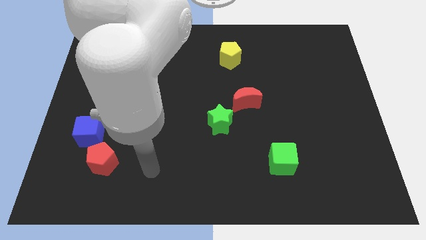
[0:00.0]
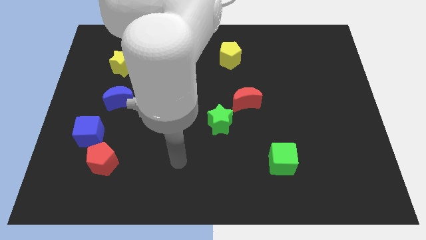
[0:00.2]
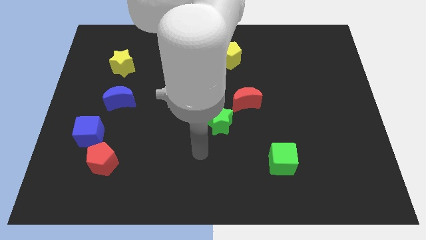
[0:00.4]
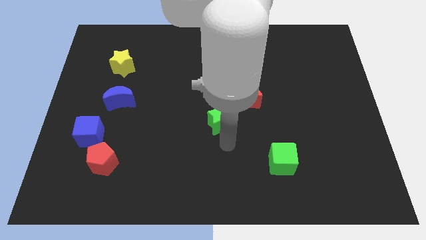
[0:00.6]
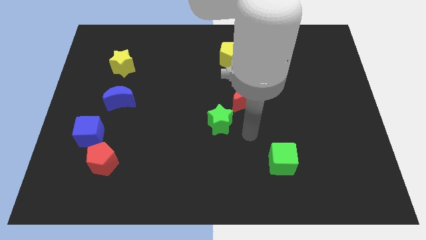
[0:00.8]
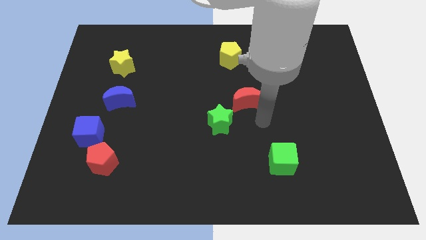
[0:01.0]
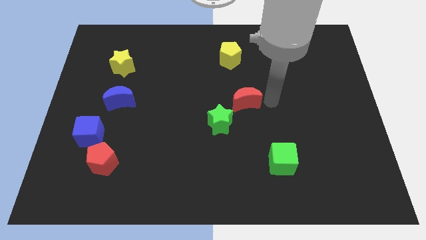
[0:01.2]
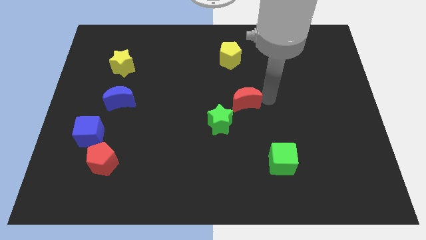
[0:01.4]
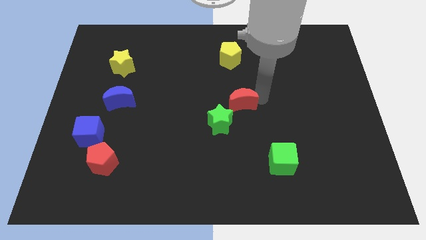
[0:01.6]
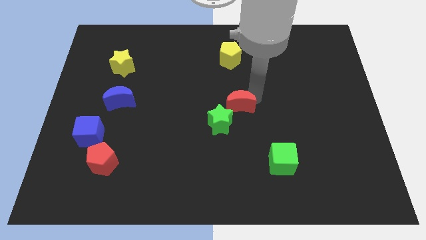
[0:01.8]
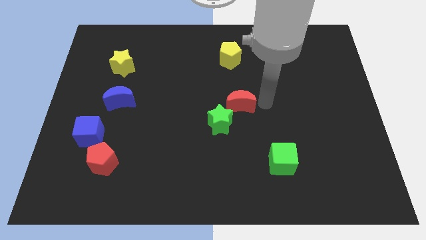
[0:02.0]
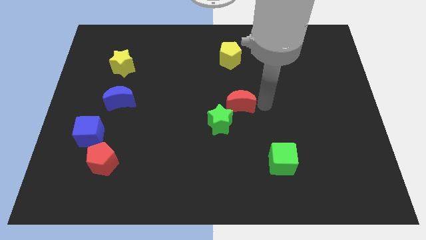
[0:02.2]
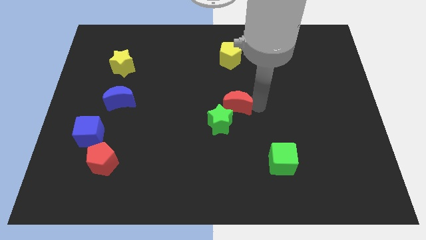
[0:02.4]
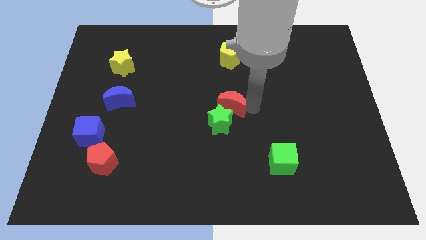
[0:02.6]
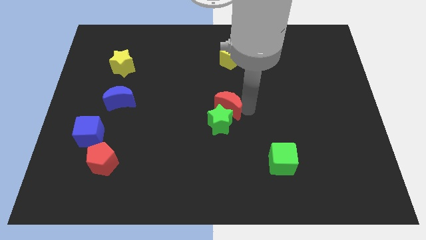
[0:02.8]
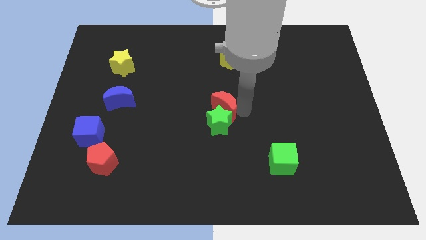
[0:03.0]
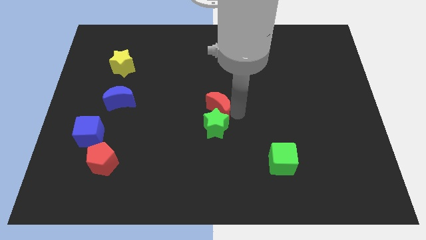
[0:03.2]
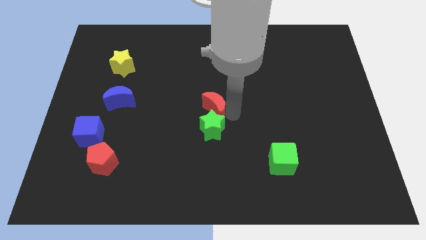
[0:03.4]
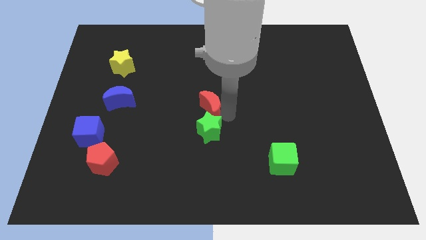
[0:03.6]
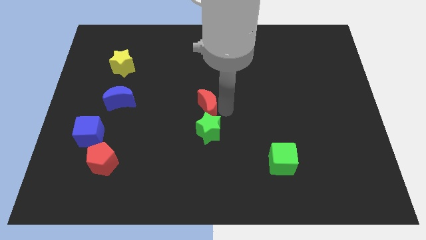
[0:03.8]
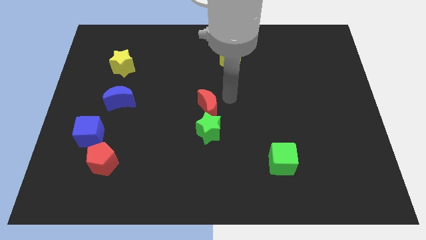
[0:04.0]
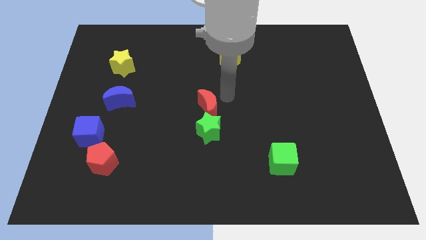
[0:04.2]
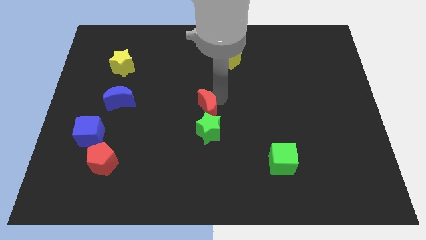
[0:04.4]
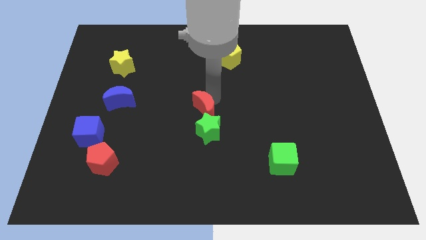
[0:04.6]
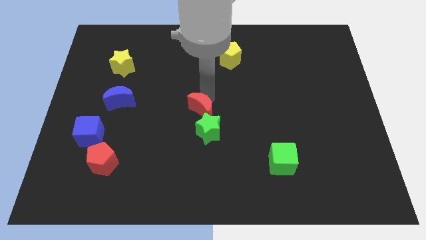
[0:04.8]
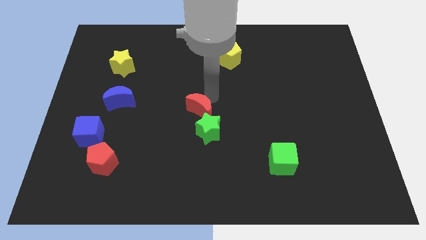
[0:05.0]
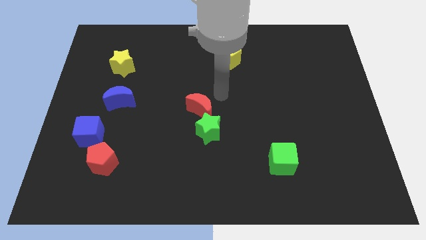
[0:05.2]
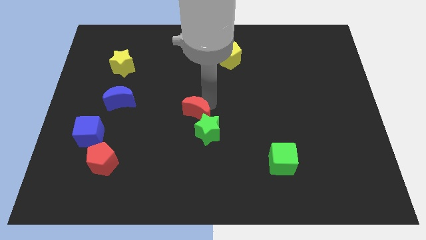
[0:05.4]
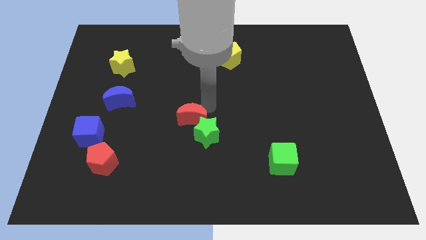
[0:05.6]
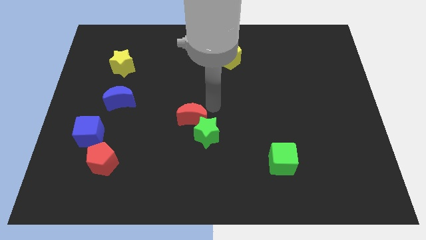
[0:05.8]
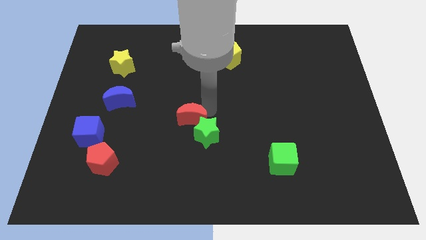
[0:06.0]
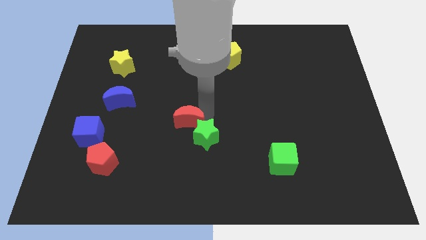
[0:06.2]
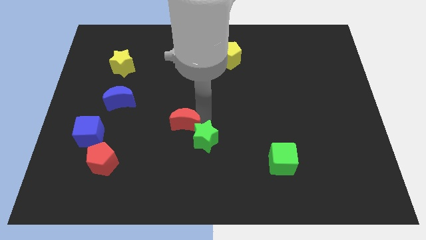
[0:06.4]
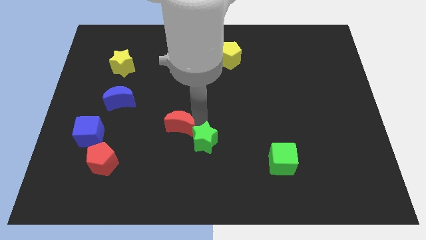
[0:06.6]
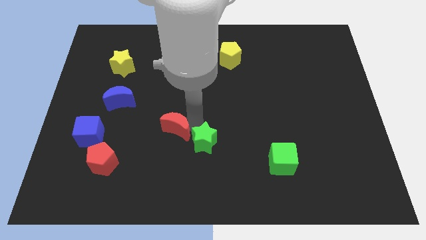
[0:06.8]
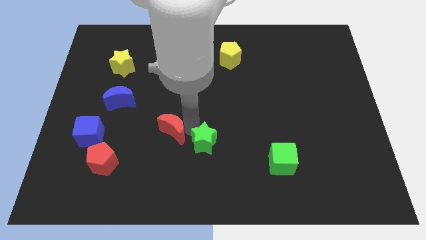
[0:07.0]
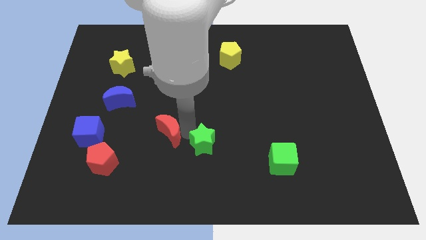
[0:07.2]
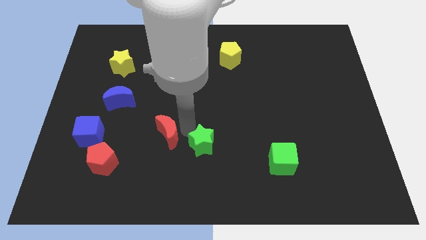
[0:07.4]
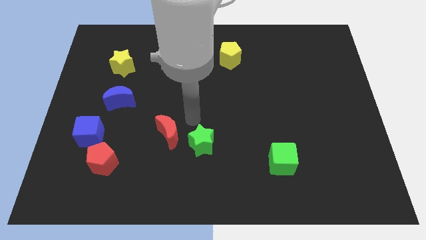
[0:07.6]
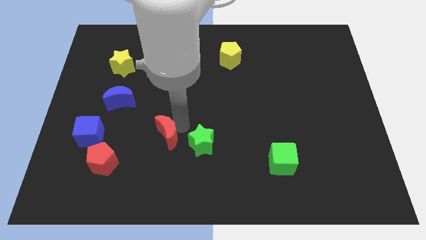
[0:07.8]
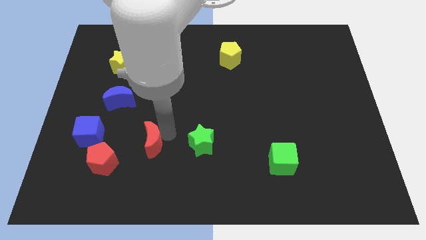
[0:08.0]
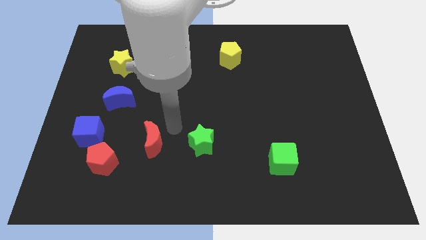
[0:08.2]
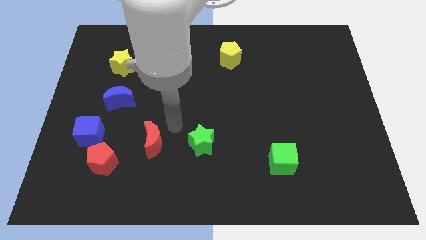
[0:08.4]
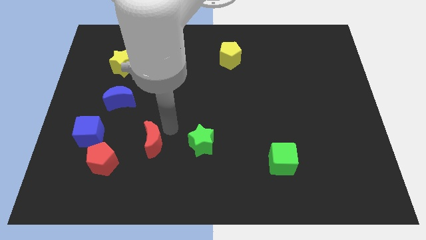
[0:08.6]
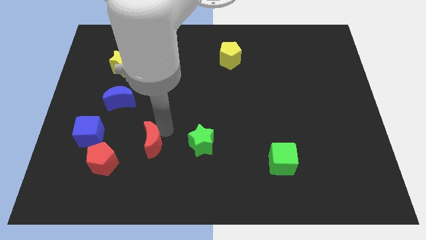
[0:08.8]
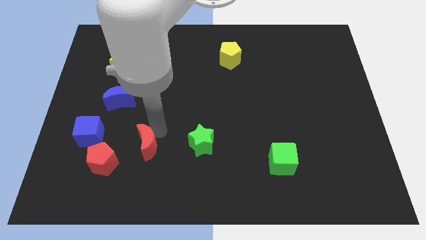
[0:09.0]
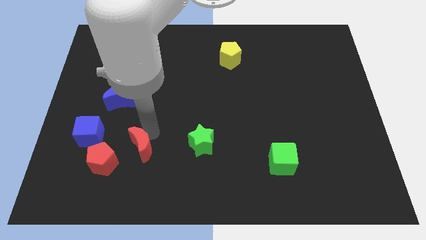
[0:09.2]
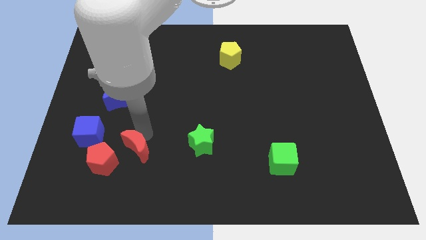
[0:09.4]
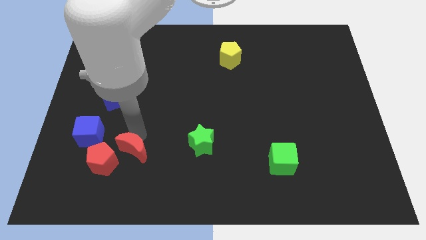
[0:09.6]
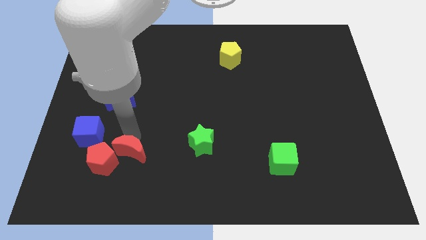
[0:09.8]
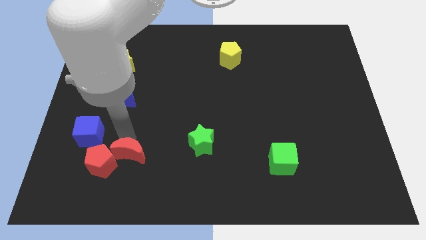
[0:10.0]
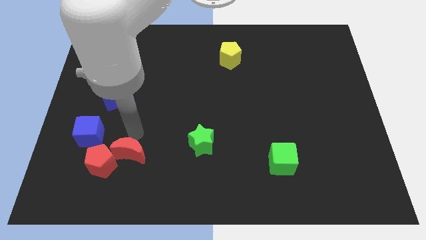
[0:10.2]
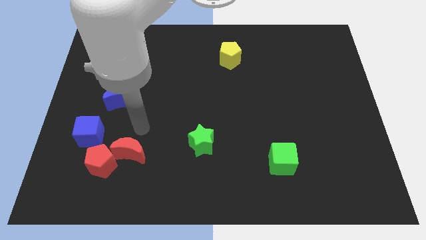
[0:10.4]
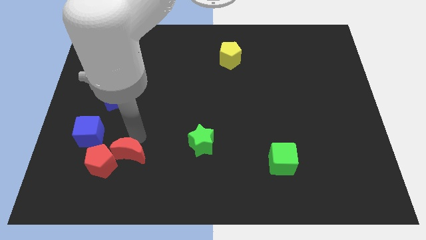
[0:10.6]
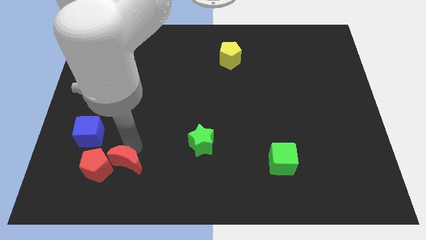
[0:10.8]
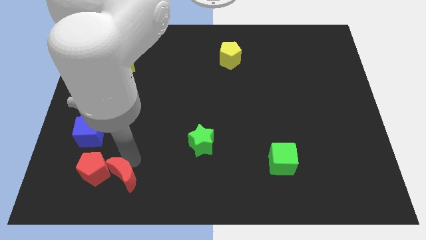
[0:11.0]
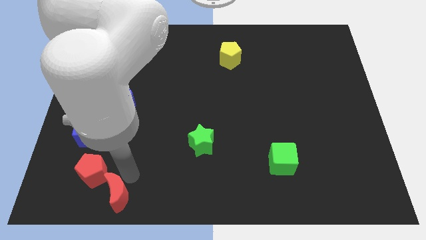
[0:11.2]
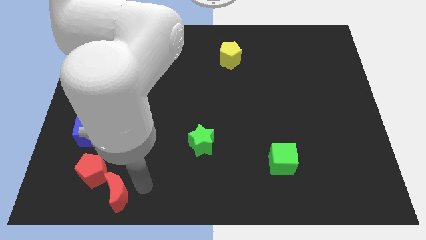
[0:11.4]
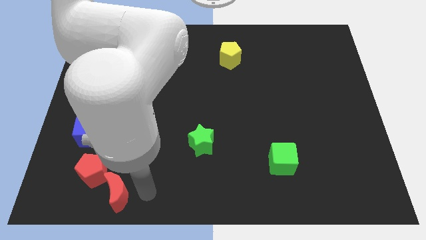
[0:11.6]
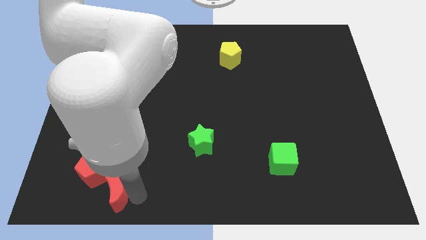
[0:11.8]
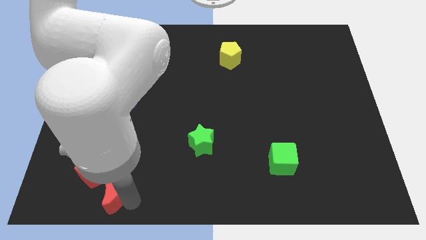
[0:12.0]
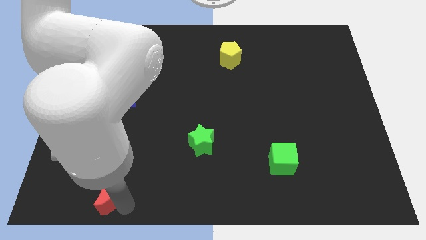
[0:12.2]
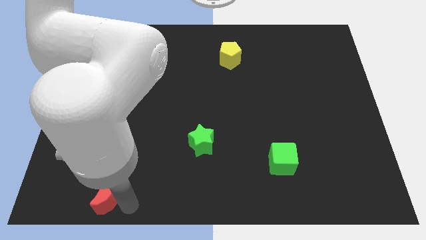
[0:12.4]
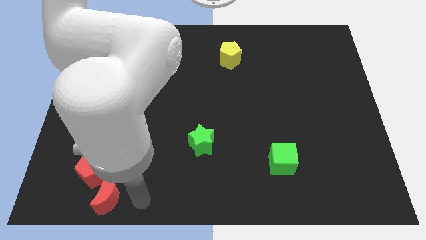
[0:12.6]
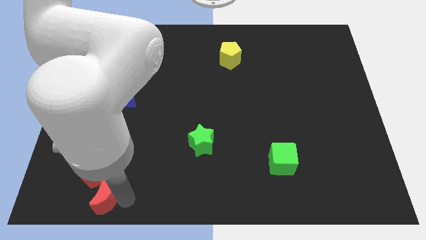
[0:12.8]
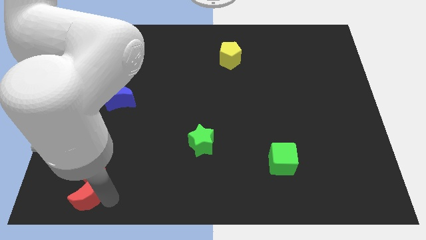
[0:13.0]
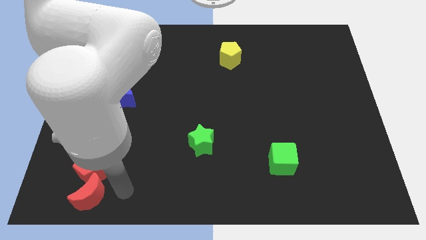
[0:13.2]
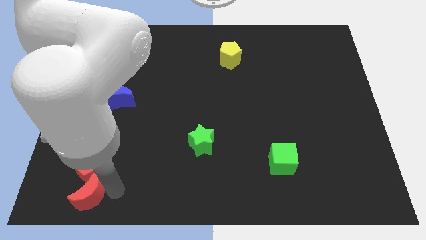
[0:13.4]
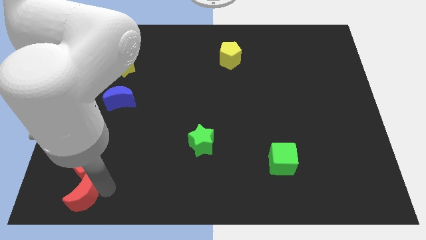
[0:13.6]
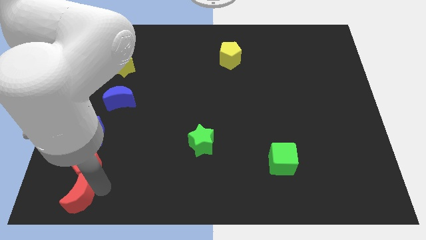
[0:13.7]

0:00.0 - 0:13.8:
push the red moon to the bottom left of the board
